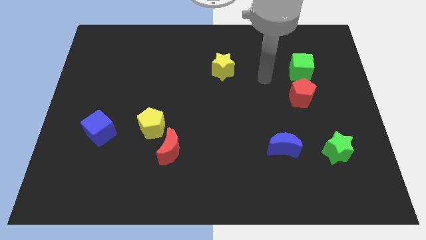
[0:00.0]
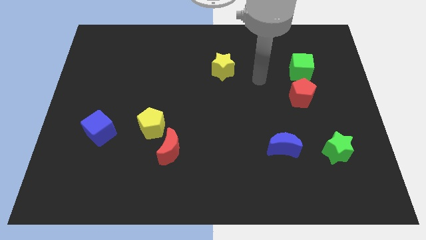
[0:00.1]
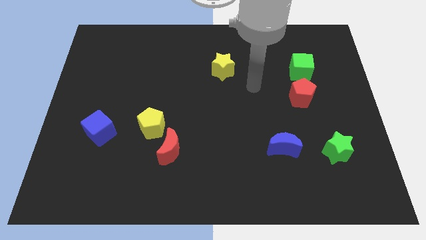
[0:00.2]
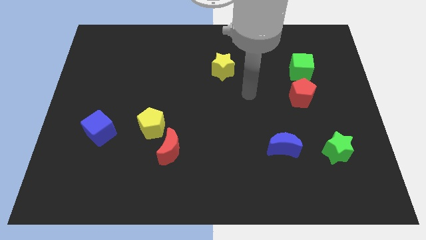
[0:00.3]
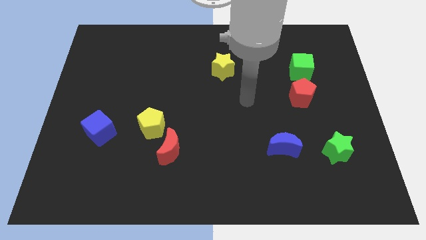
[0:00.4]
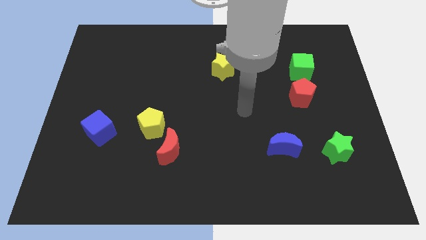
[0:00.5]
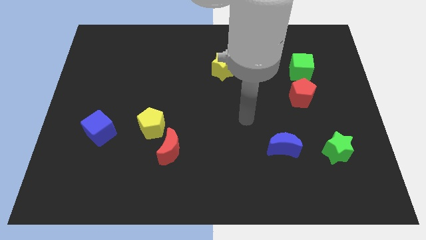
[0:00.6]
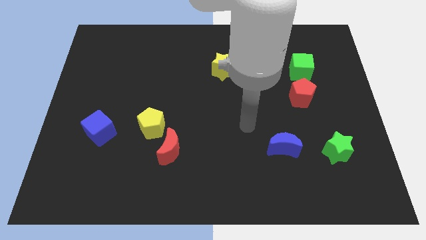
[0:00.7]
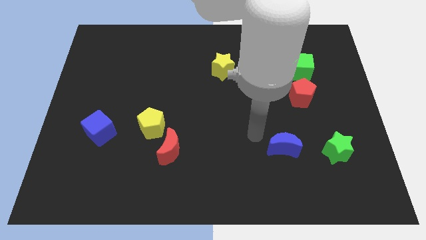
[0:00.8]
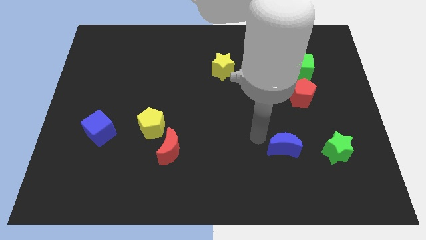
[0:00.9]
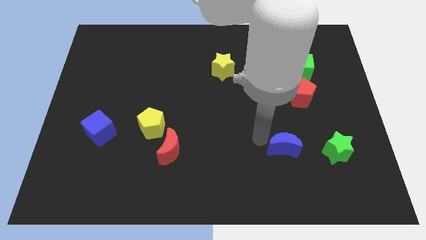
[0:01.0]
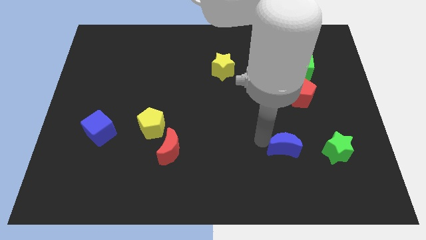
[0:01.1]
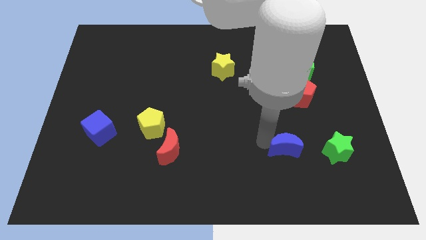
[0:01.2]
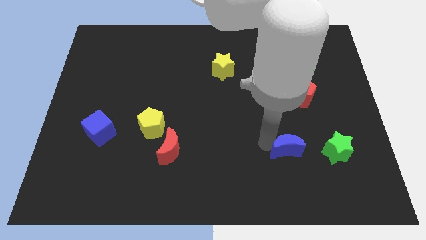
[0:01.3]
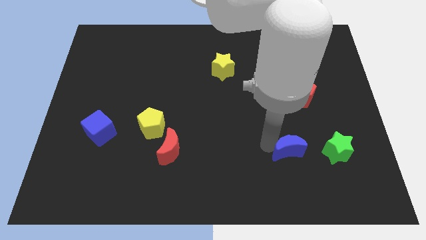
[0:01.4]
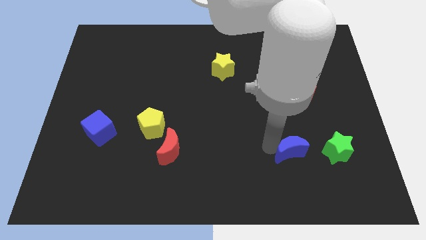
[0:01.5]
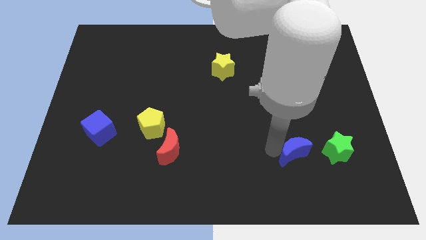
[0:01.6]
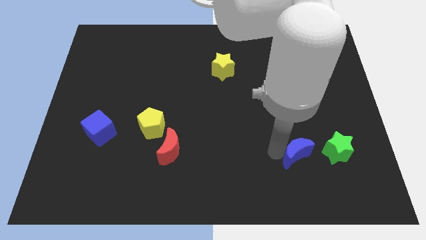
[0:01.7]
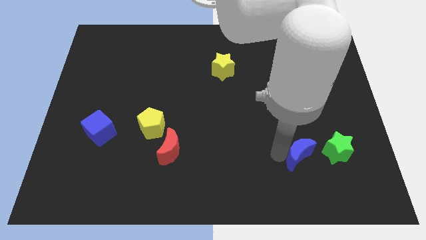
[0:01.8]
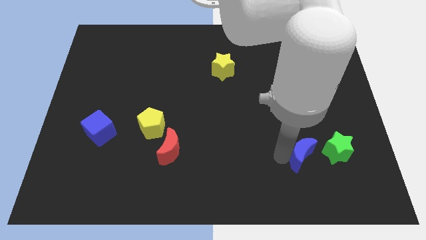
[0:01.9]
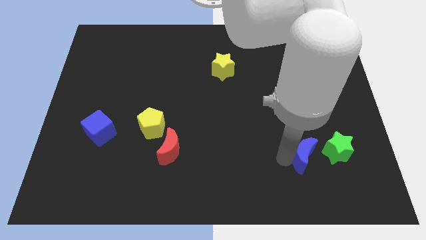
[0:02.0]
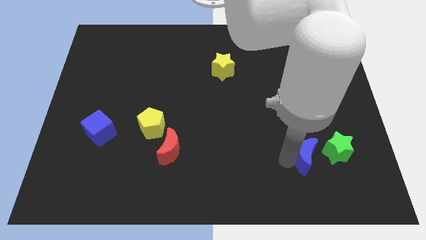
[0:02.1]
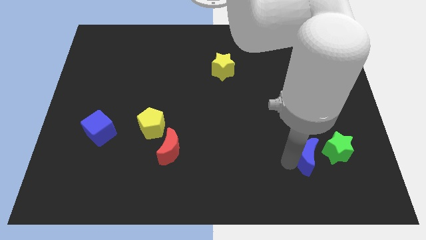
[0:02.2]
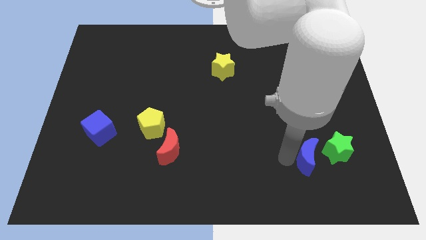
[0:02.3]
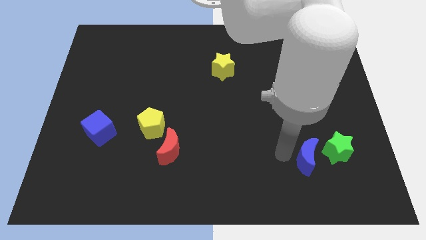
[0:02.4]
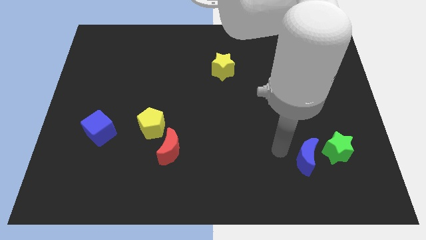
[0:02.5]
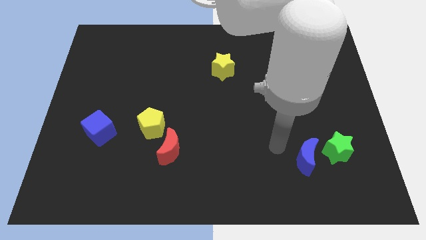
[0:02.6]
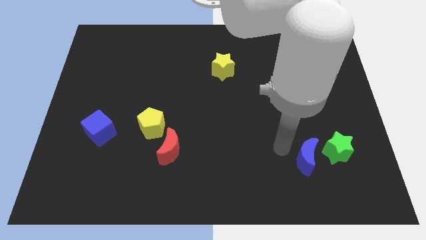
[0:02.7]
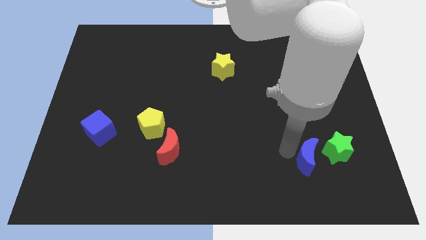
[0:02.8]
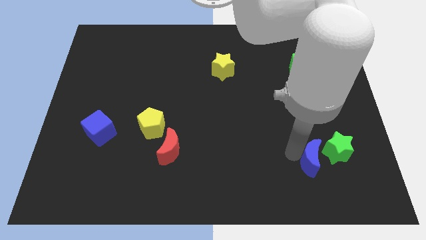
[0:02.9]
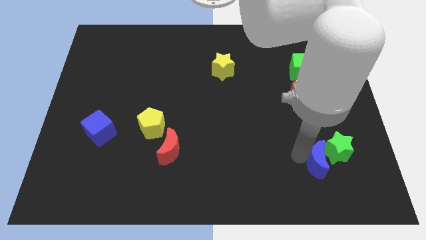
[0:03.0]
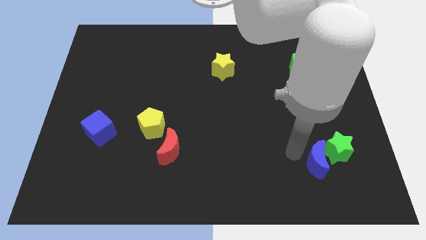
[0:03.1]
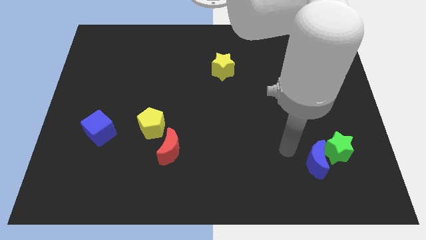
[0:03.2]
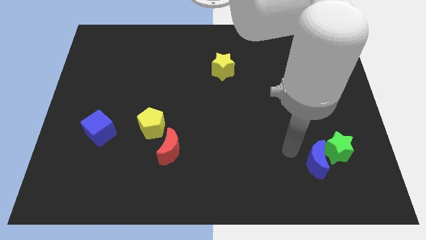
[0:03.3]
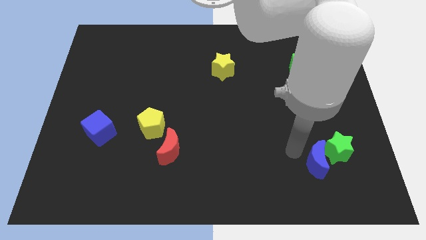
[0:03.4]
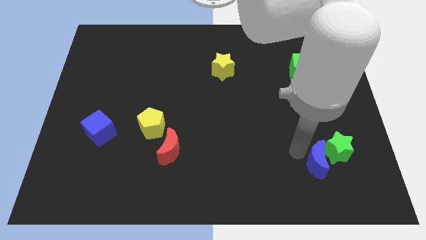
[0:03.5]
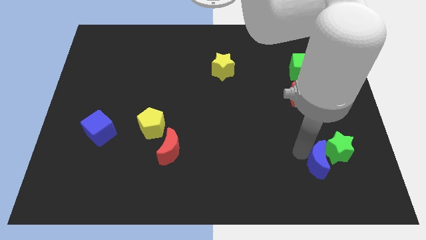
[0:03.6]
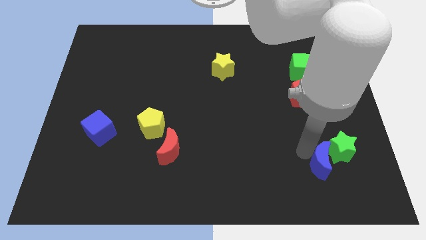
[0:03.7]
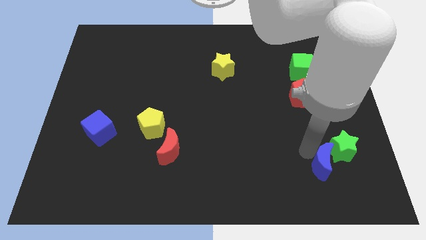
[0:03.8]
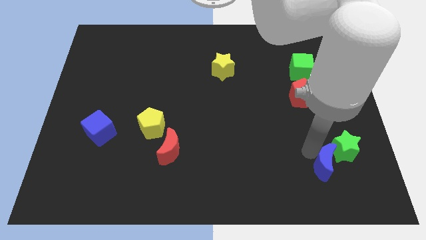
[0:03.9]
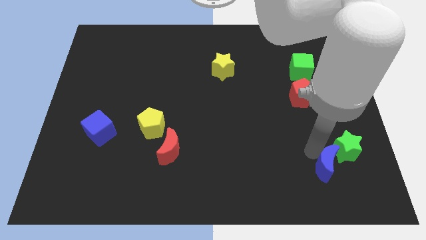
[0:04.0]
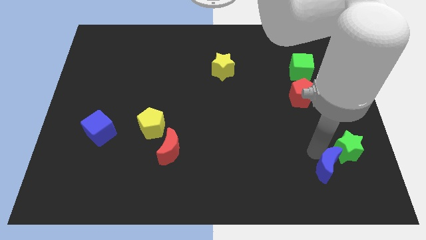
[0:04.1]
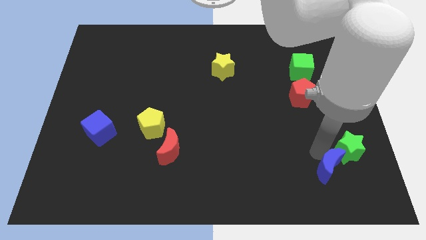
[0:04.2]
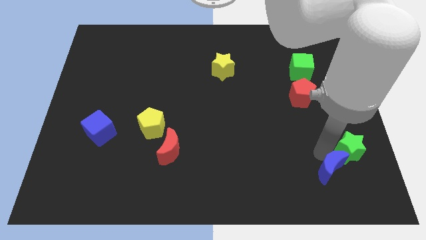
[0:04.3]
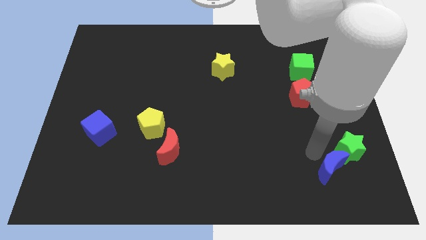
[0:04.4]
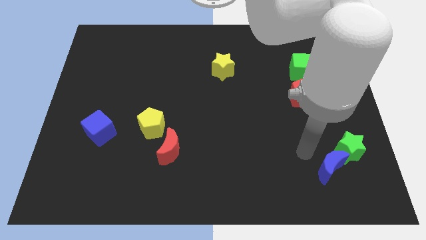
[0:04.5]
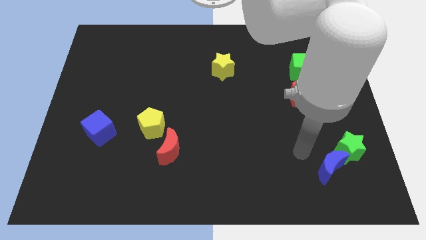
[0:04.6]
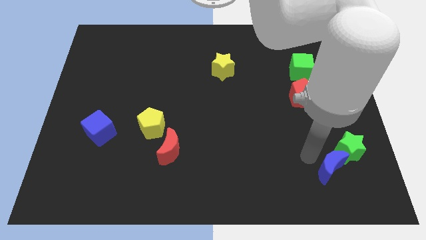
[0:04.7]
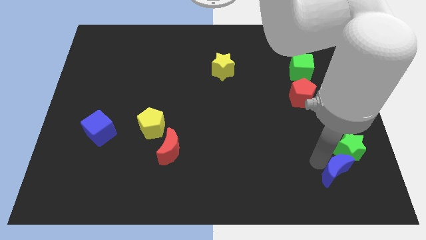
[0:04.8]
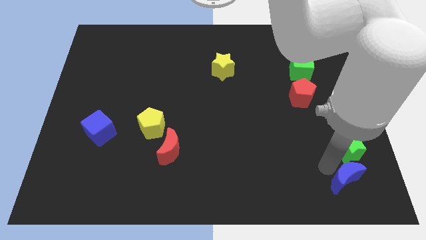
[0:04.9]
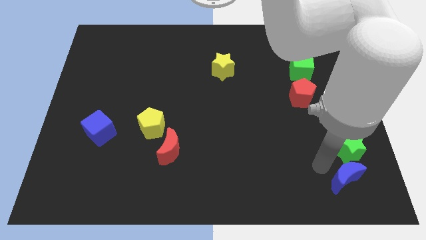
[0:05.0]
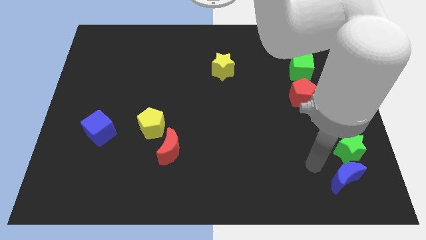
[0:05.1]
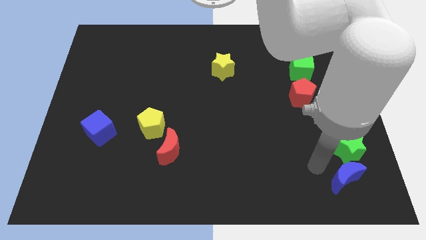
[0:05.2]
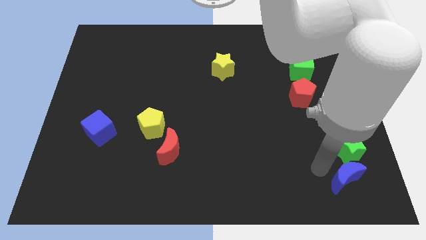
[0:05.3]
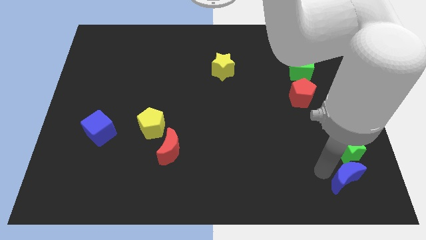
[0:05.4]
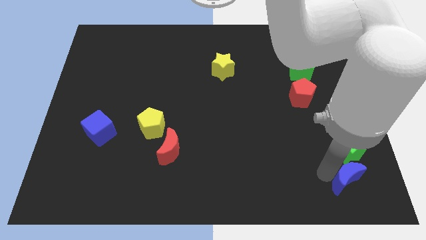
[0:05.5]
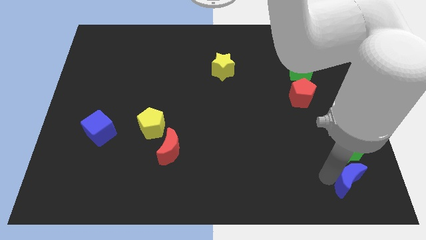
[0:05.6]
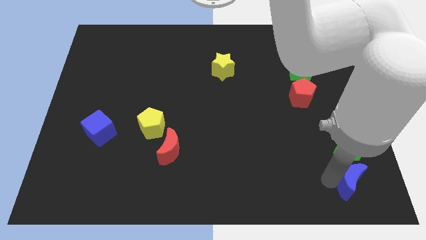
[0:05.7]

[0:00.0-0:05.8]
push the blue moon to the bottom right corner

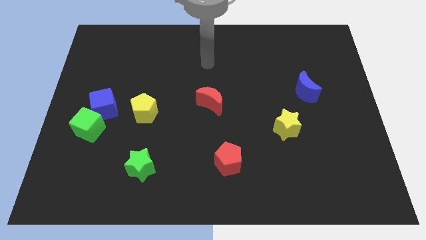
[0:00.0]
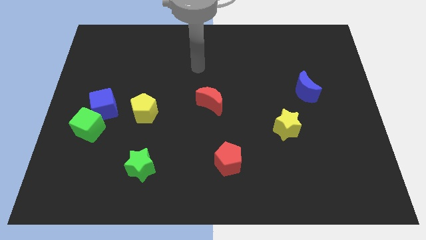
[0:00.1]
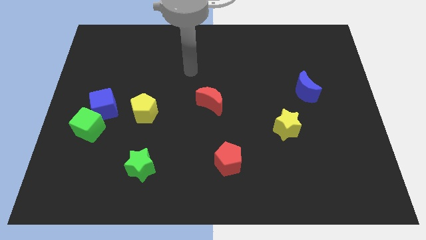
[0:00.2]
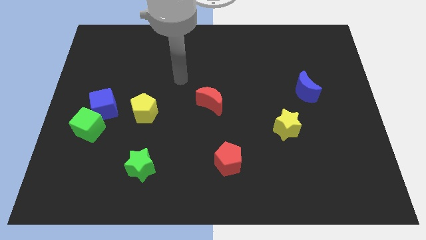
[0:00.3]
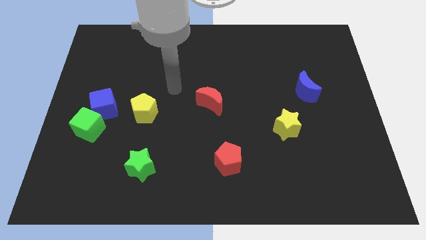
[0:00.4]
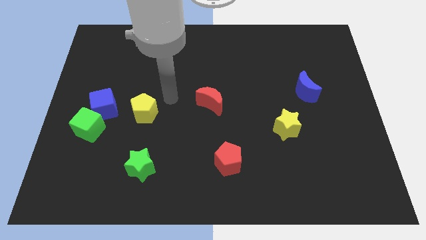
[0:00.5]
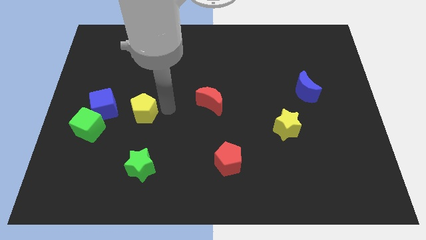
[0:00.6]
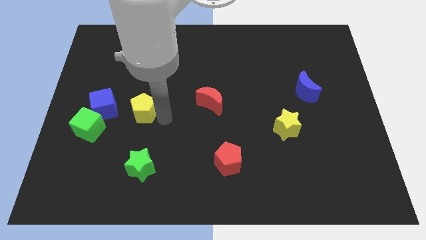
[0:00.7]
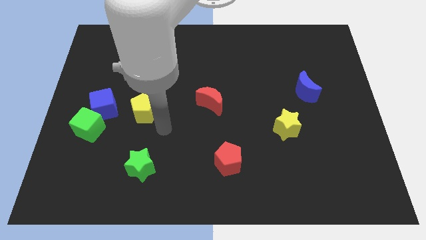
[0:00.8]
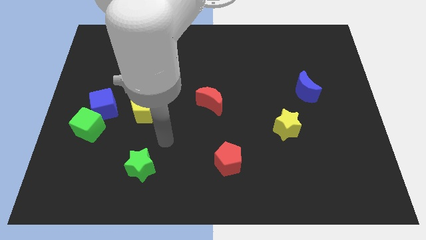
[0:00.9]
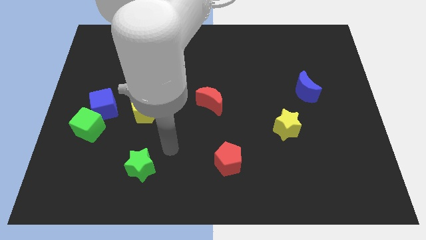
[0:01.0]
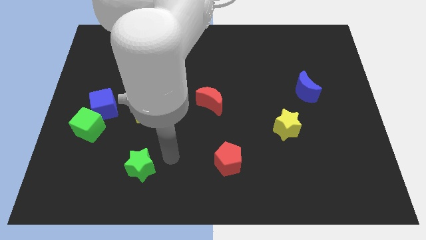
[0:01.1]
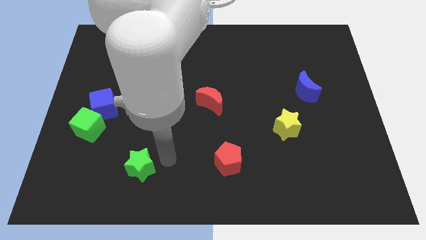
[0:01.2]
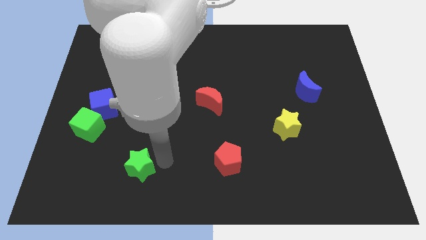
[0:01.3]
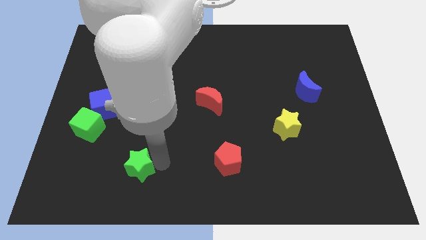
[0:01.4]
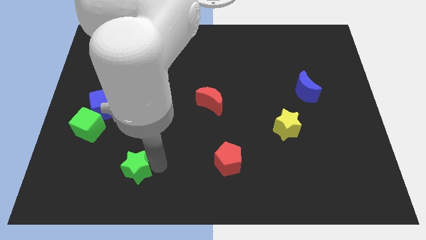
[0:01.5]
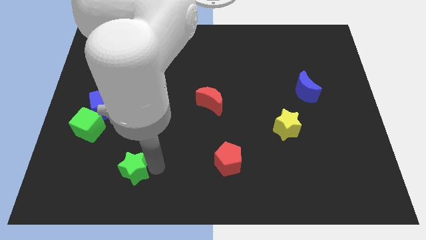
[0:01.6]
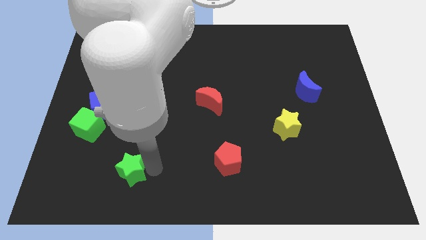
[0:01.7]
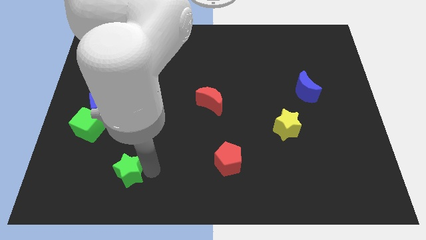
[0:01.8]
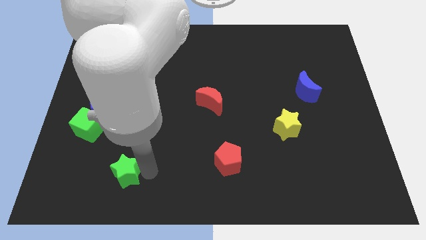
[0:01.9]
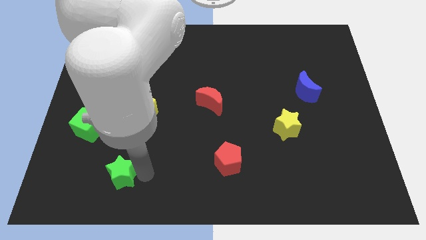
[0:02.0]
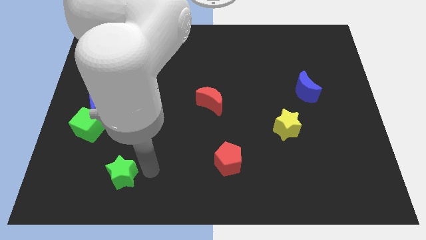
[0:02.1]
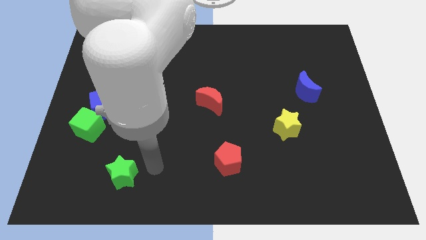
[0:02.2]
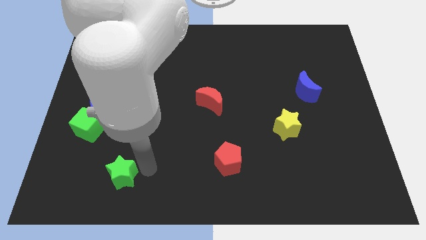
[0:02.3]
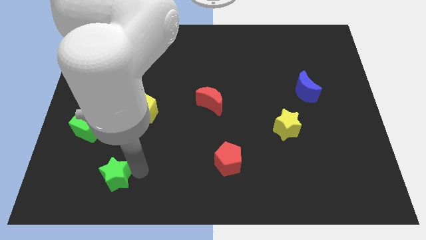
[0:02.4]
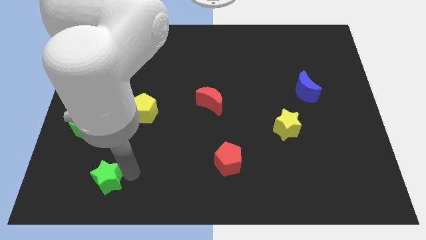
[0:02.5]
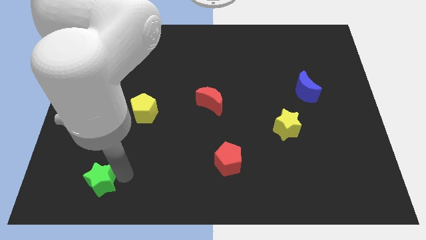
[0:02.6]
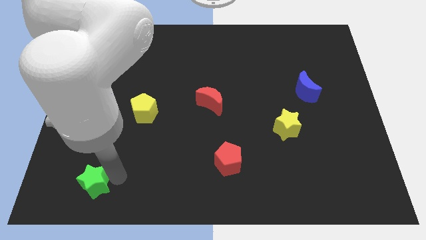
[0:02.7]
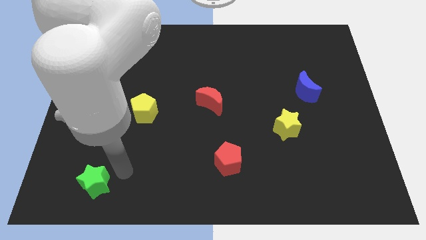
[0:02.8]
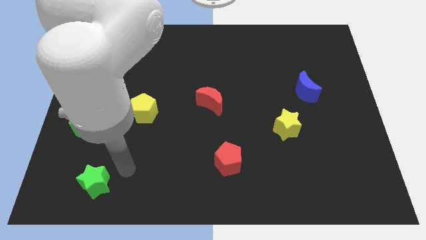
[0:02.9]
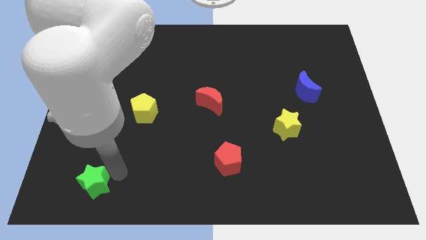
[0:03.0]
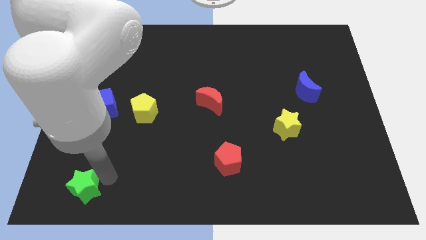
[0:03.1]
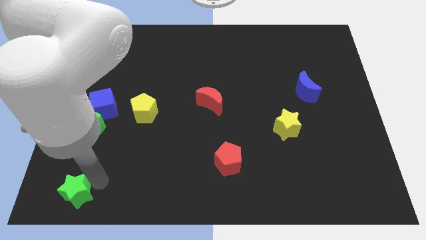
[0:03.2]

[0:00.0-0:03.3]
push the green star to the bottom left
